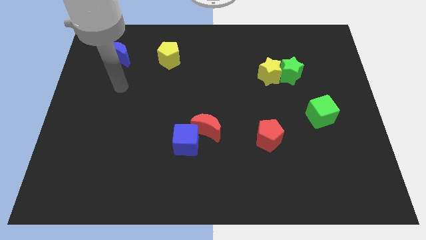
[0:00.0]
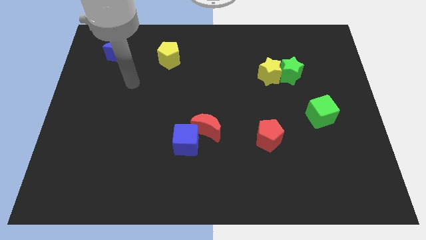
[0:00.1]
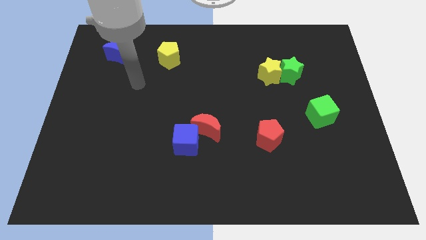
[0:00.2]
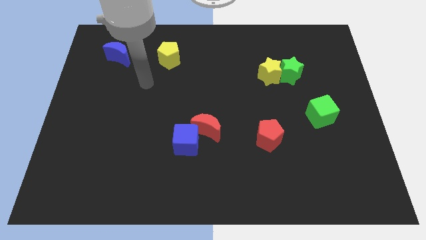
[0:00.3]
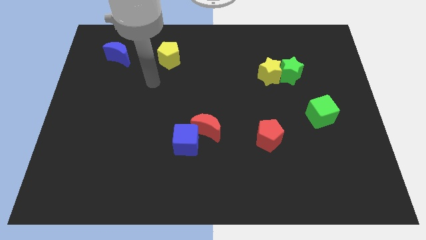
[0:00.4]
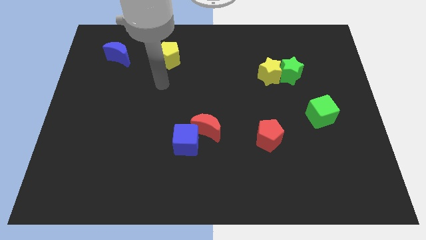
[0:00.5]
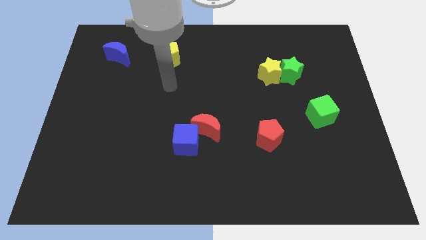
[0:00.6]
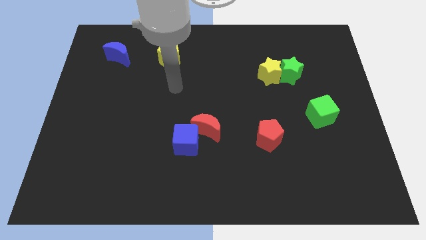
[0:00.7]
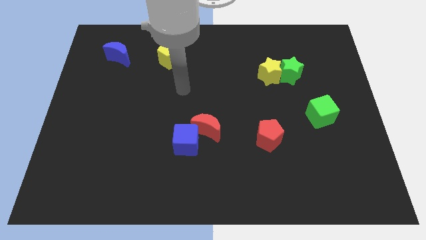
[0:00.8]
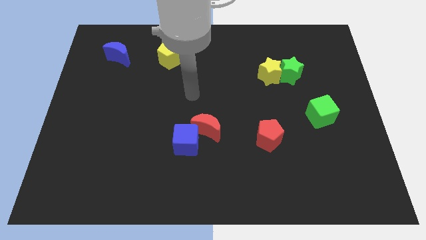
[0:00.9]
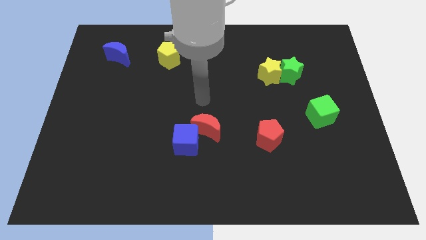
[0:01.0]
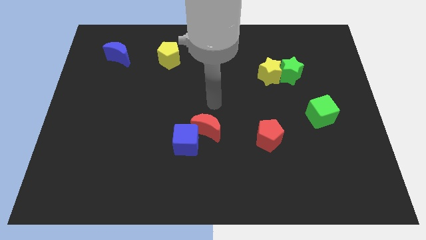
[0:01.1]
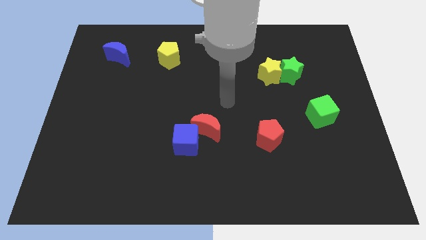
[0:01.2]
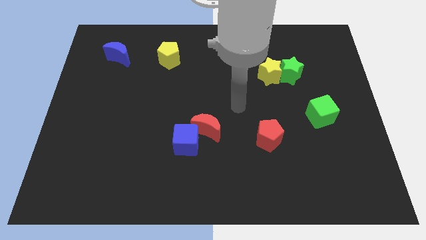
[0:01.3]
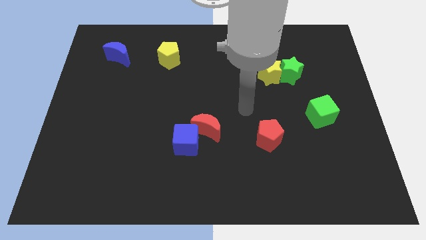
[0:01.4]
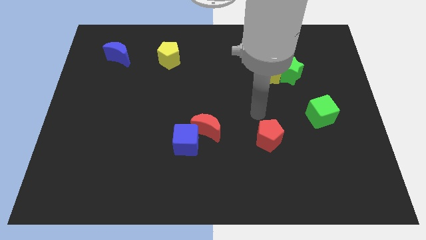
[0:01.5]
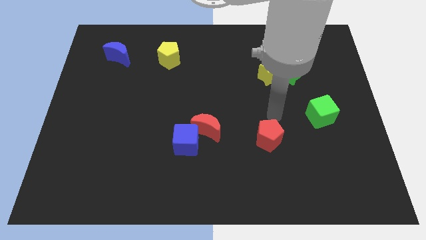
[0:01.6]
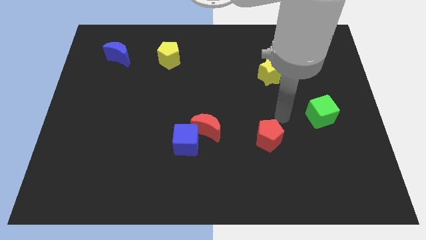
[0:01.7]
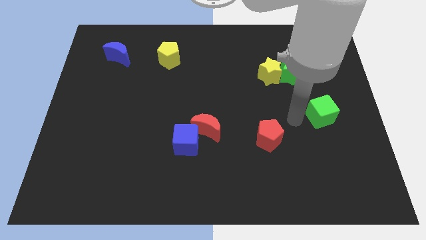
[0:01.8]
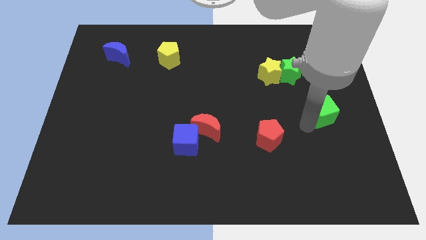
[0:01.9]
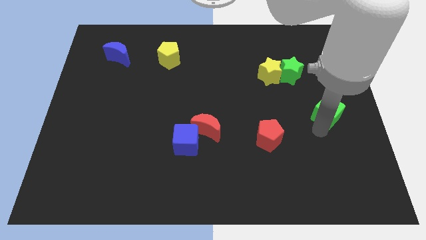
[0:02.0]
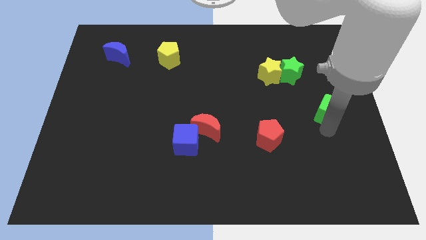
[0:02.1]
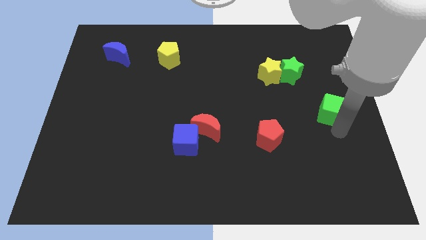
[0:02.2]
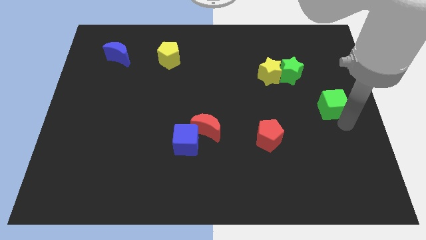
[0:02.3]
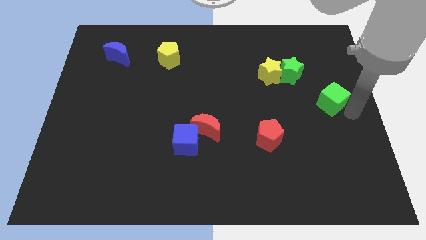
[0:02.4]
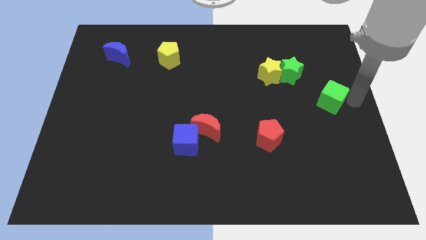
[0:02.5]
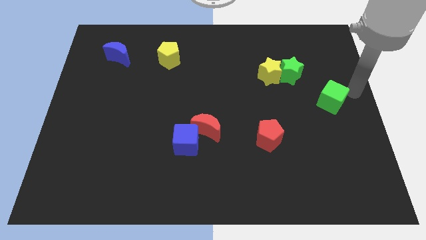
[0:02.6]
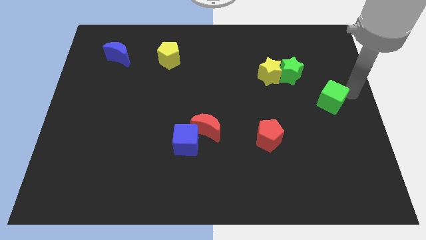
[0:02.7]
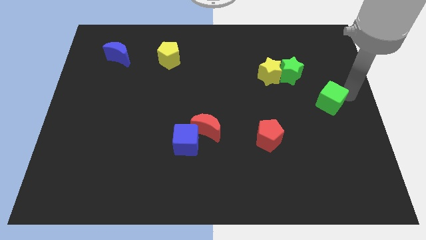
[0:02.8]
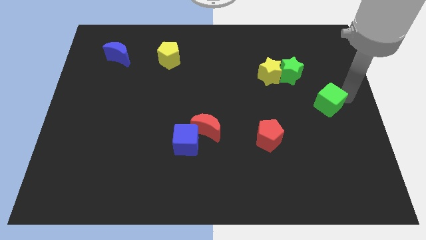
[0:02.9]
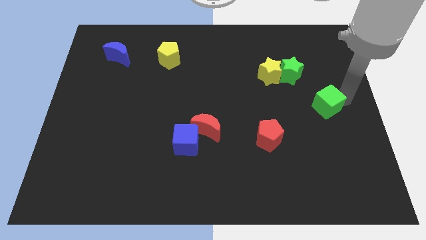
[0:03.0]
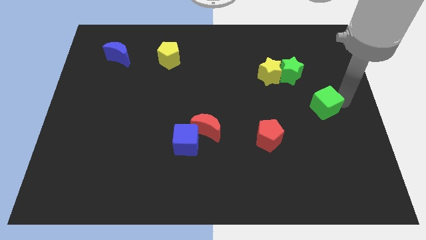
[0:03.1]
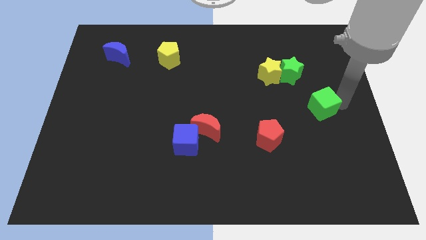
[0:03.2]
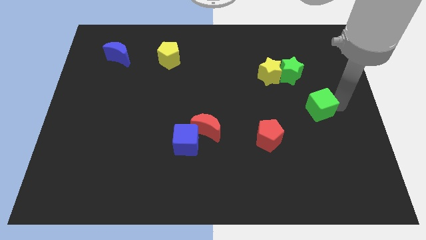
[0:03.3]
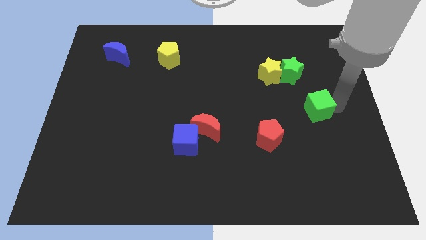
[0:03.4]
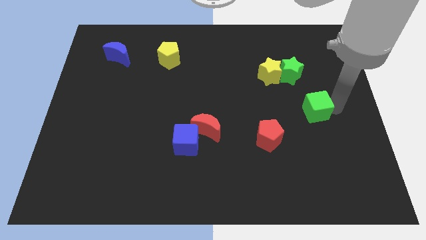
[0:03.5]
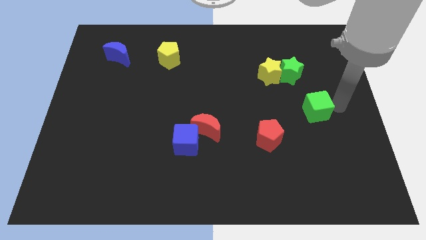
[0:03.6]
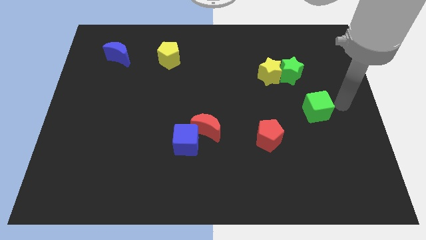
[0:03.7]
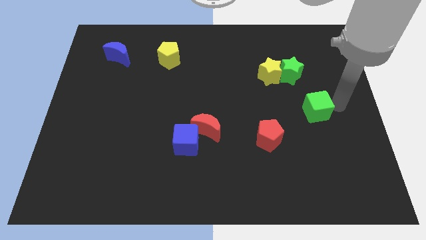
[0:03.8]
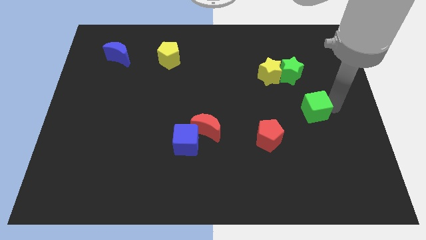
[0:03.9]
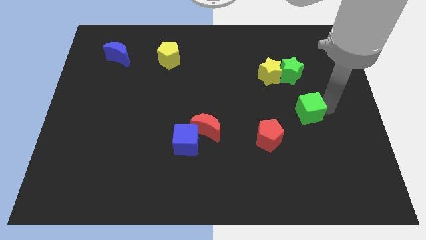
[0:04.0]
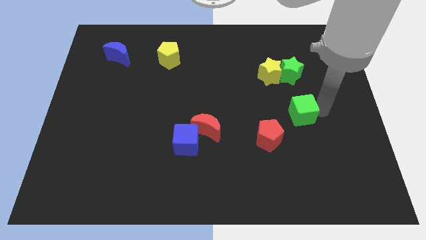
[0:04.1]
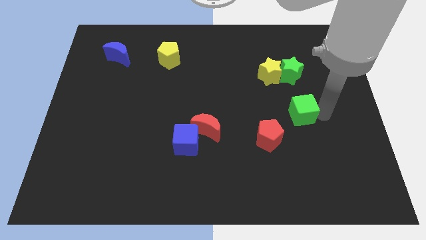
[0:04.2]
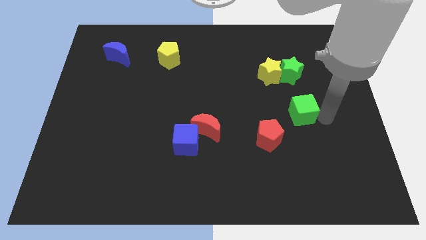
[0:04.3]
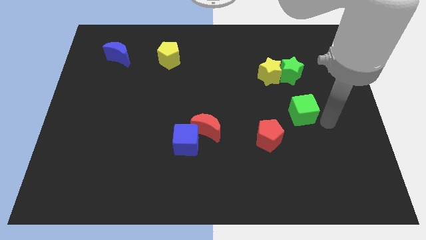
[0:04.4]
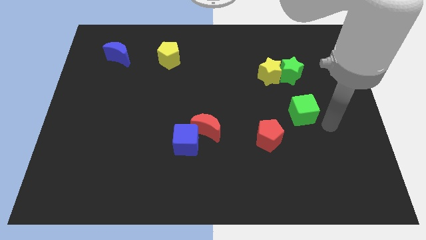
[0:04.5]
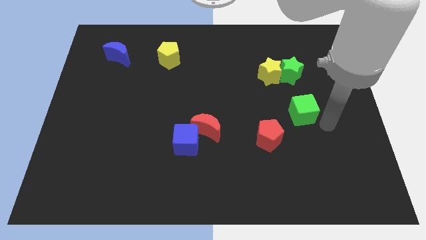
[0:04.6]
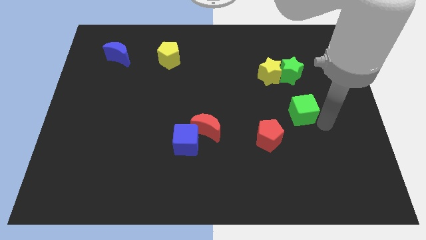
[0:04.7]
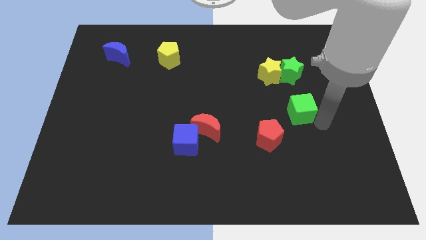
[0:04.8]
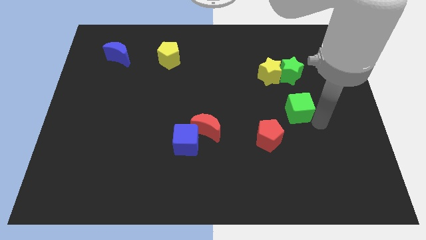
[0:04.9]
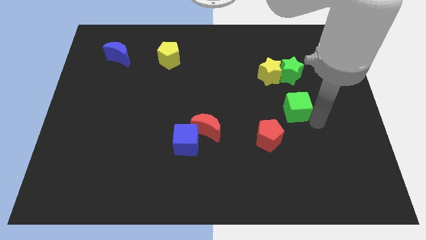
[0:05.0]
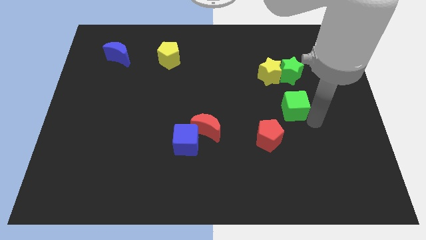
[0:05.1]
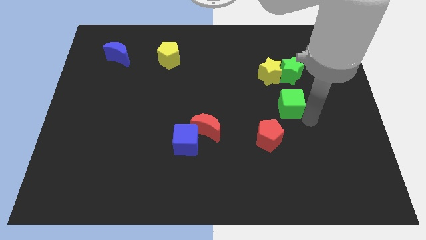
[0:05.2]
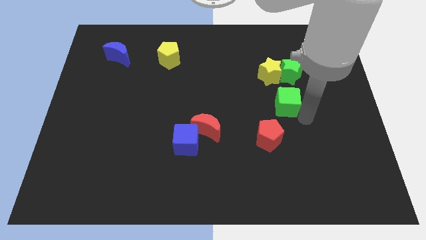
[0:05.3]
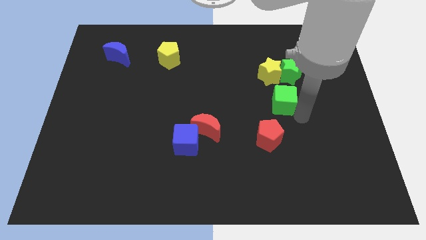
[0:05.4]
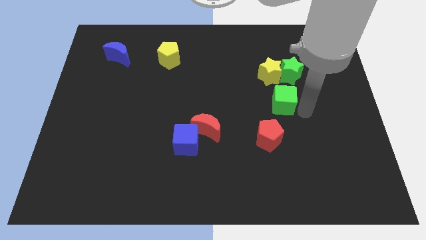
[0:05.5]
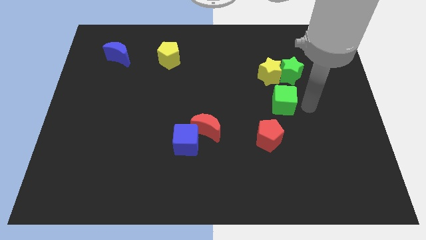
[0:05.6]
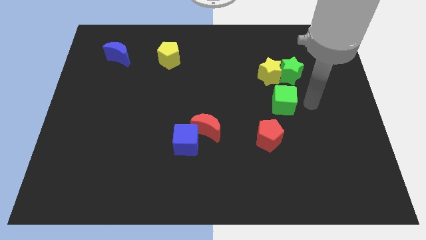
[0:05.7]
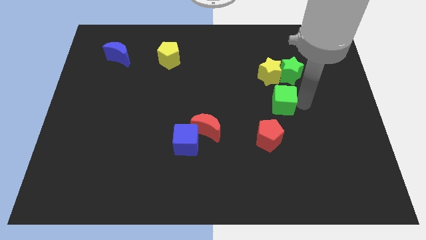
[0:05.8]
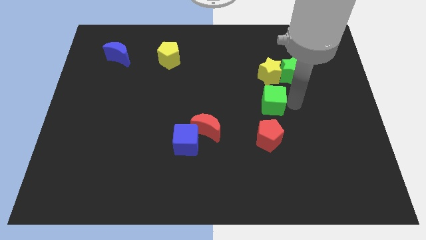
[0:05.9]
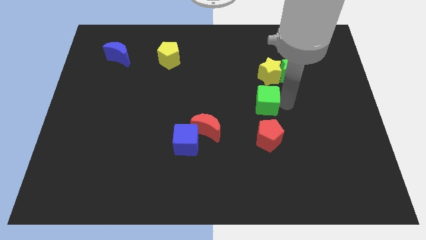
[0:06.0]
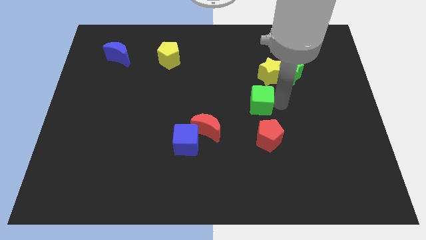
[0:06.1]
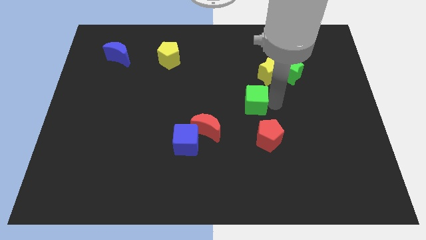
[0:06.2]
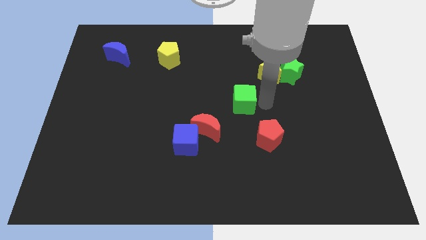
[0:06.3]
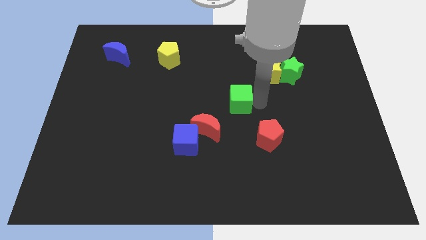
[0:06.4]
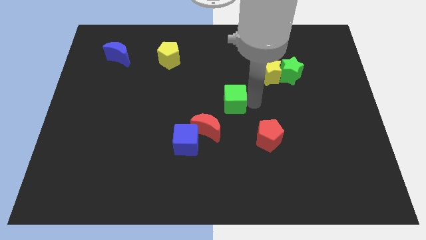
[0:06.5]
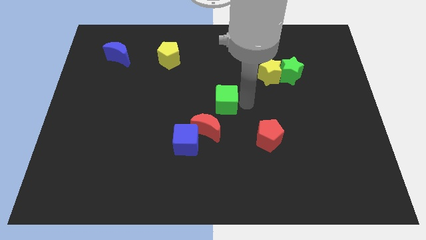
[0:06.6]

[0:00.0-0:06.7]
move the green cube to the top of the red moon
